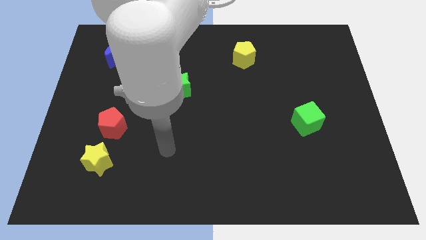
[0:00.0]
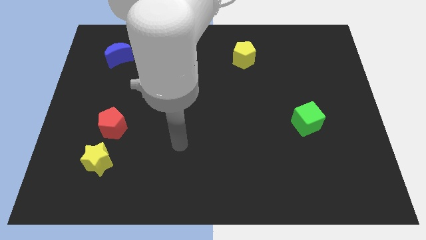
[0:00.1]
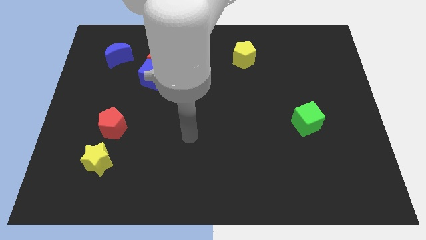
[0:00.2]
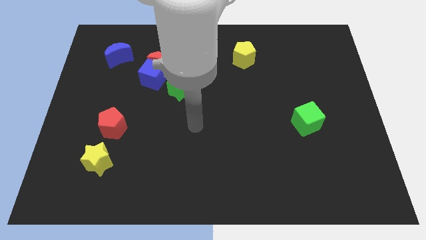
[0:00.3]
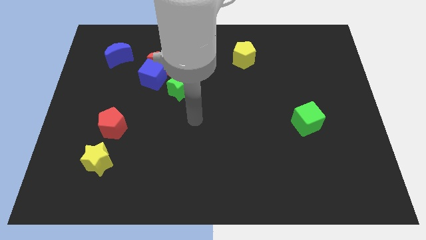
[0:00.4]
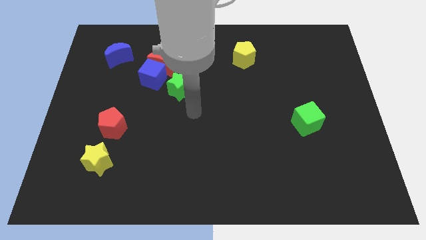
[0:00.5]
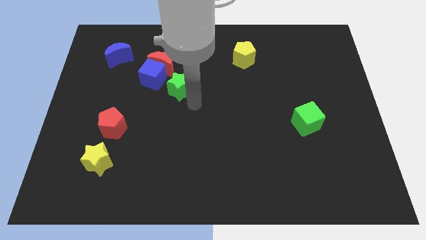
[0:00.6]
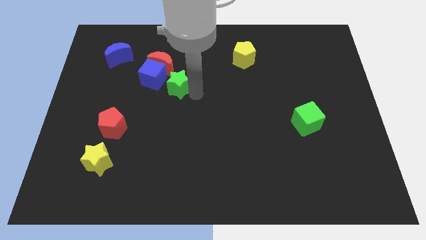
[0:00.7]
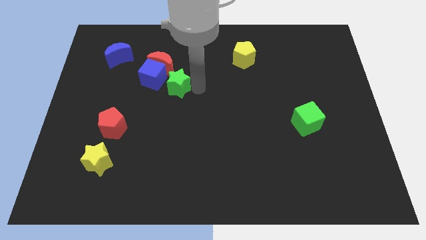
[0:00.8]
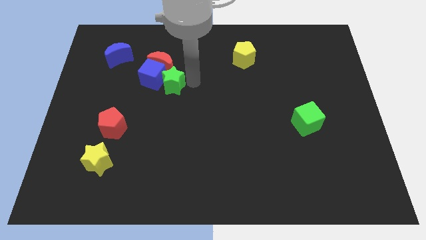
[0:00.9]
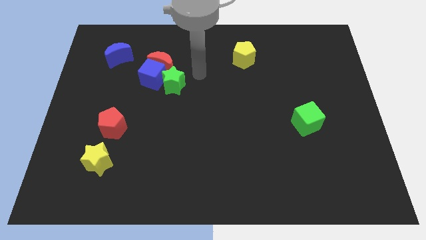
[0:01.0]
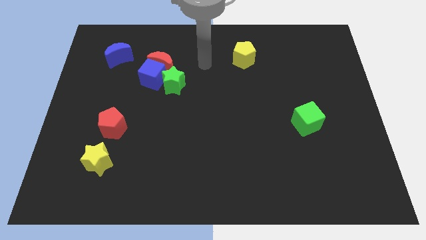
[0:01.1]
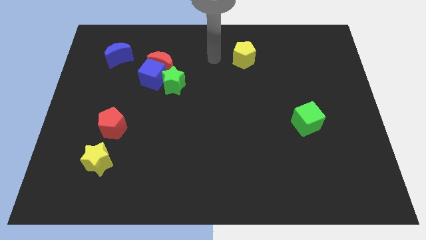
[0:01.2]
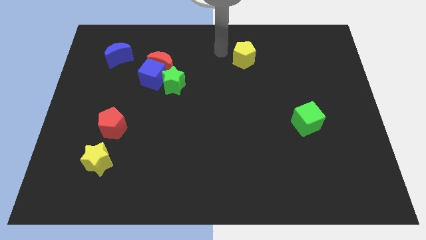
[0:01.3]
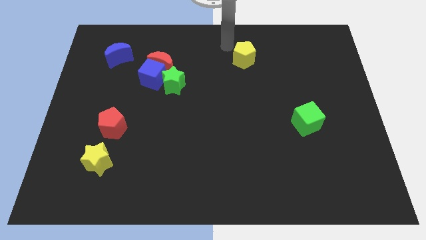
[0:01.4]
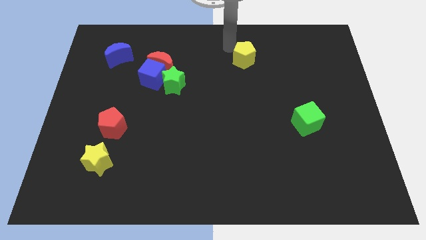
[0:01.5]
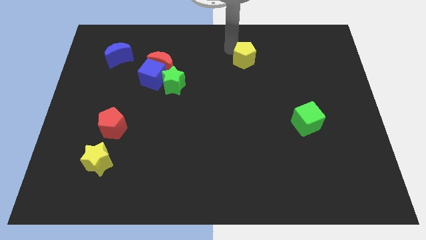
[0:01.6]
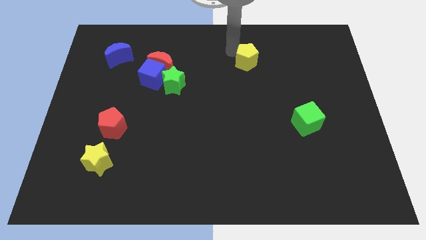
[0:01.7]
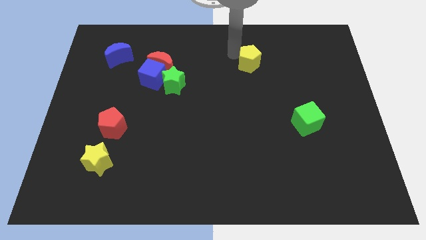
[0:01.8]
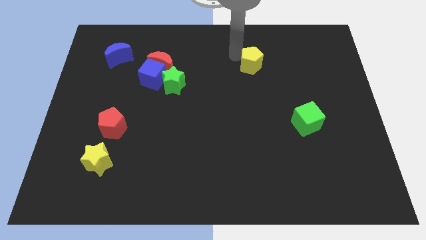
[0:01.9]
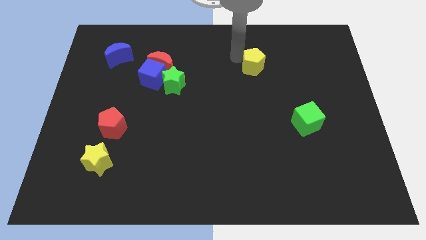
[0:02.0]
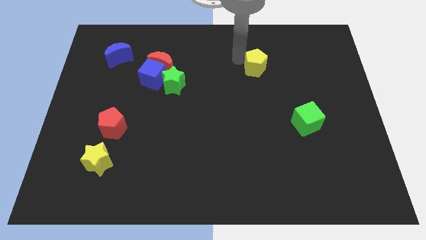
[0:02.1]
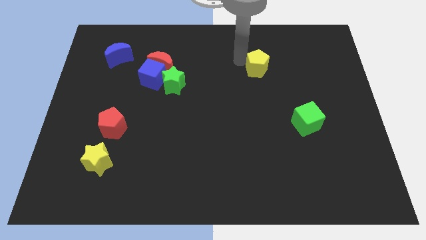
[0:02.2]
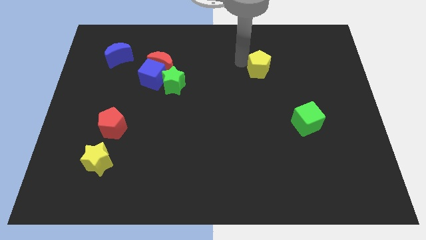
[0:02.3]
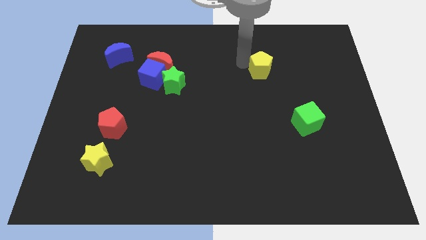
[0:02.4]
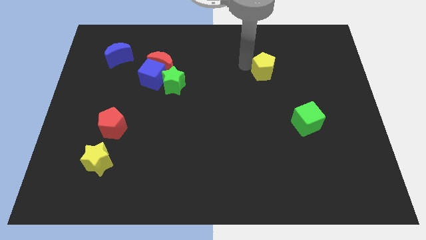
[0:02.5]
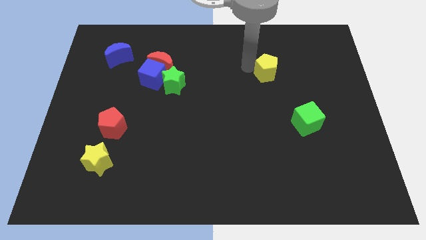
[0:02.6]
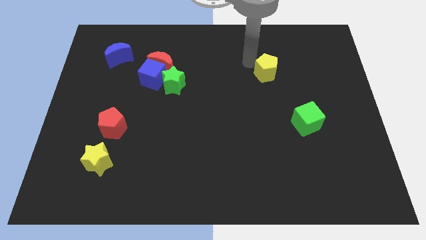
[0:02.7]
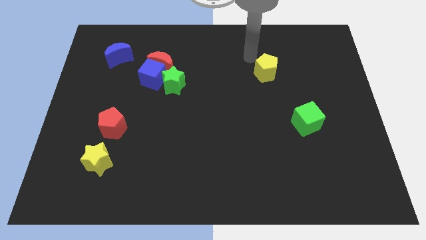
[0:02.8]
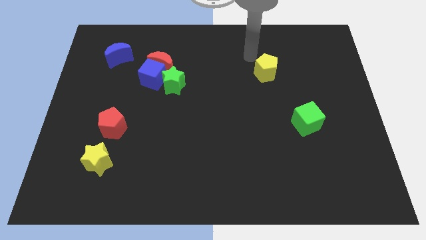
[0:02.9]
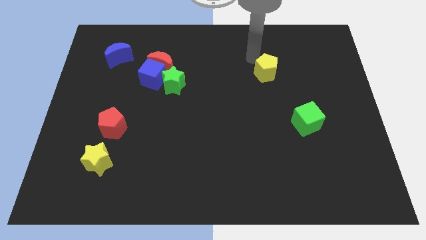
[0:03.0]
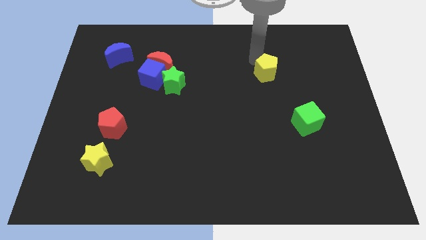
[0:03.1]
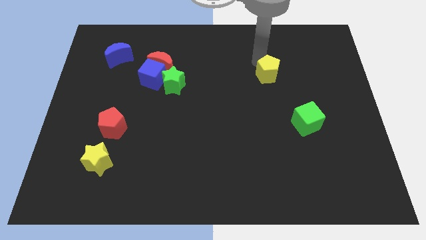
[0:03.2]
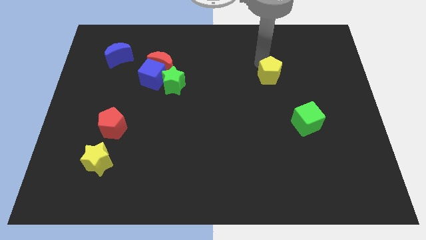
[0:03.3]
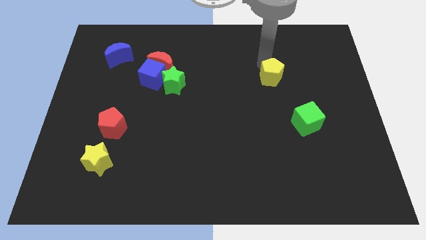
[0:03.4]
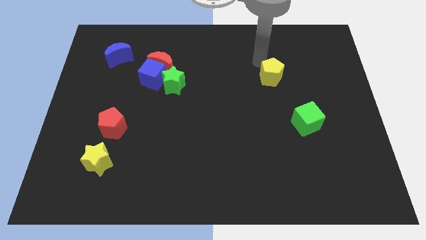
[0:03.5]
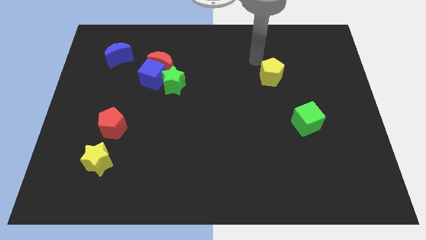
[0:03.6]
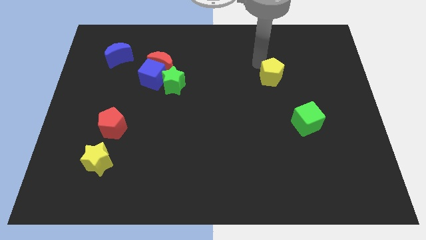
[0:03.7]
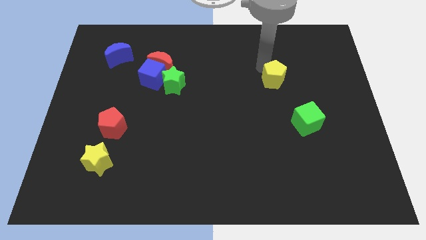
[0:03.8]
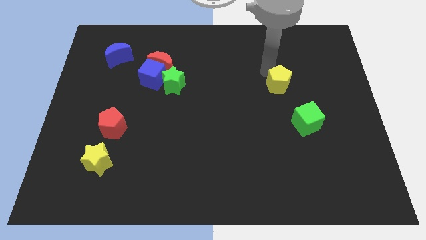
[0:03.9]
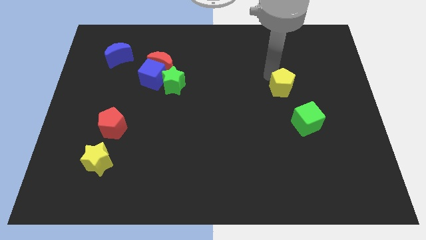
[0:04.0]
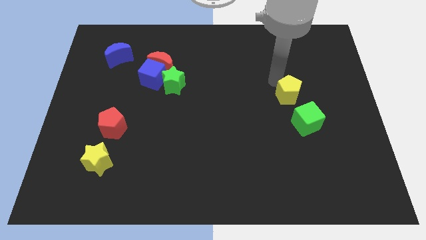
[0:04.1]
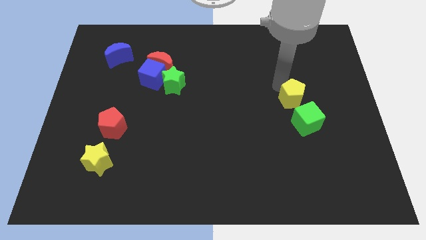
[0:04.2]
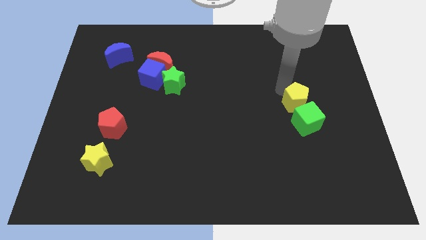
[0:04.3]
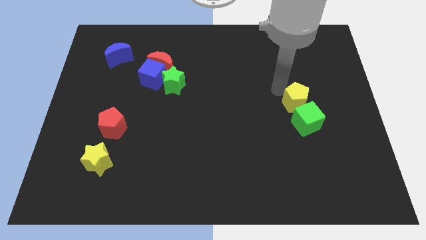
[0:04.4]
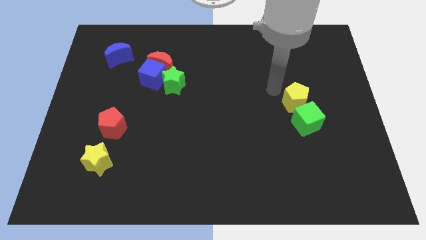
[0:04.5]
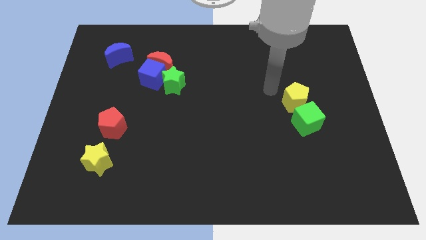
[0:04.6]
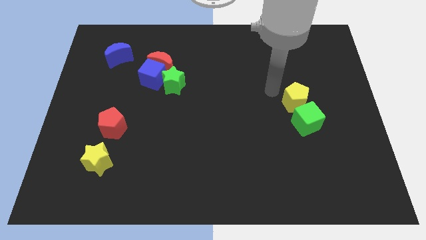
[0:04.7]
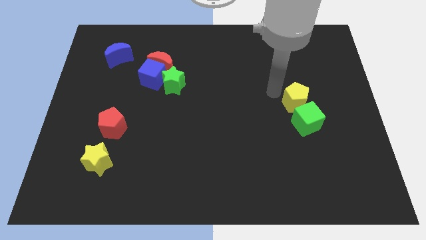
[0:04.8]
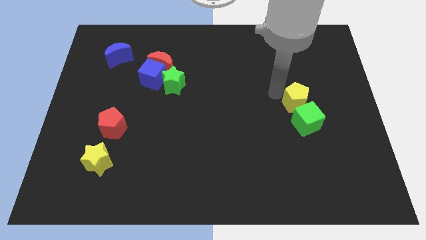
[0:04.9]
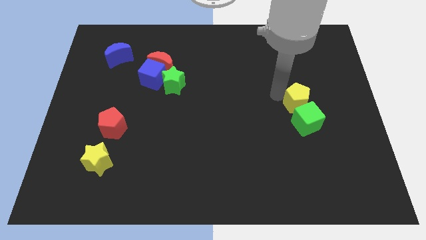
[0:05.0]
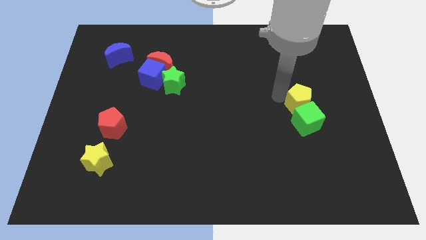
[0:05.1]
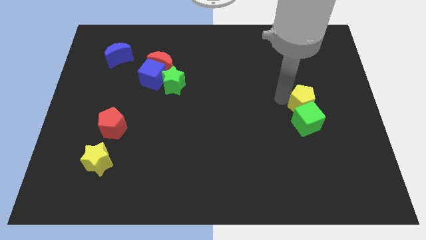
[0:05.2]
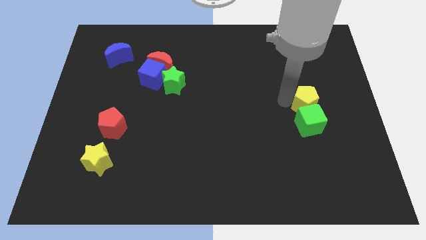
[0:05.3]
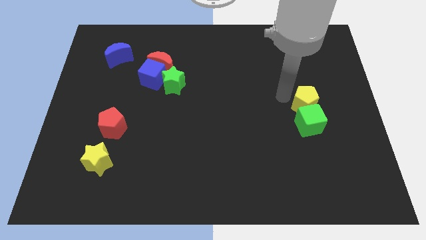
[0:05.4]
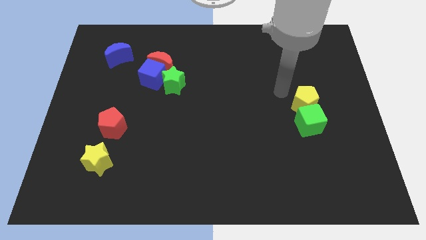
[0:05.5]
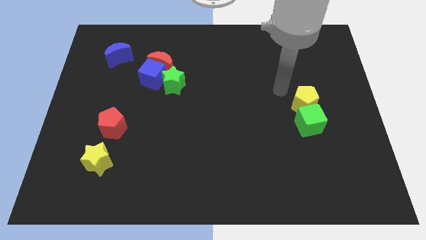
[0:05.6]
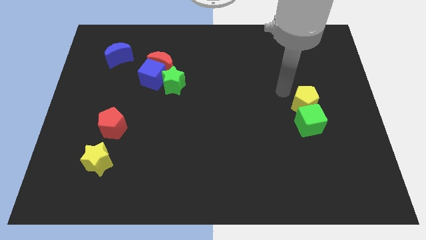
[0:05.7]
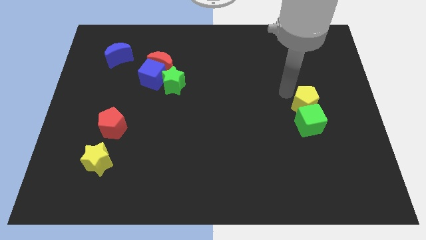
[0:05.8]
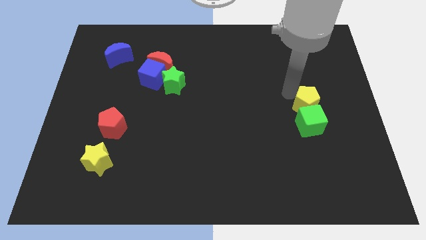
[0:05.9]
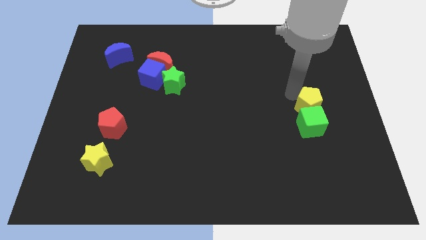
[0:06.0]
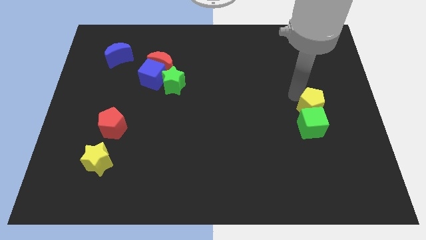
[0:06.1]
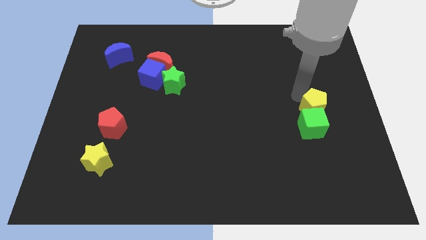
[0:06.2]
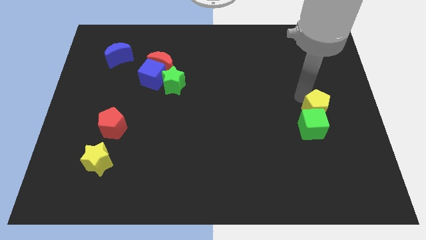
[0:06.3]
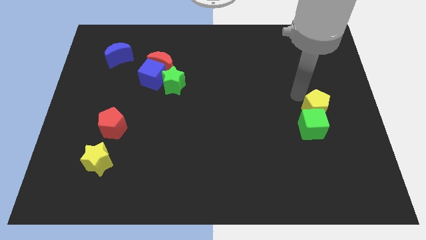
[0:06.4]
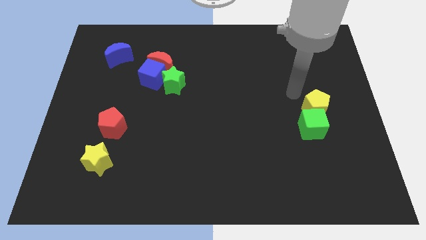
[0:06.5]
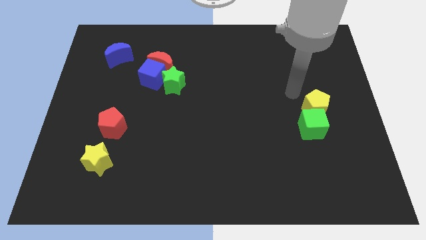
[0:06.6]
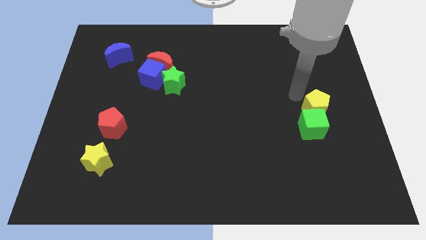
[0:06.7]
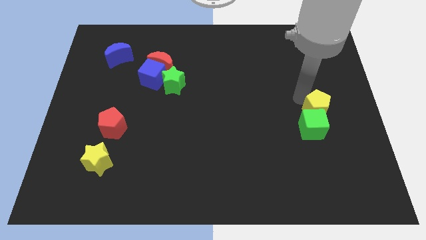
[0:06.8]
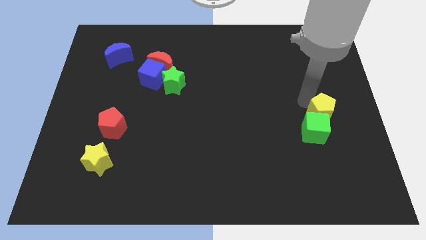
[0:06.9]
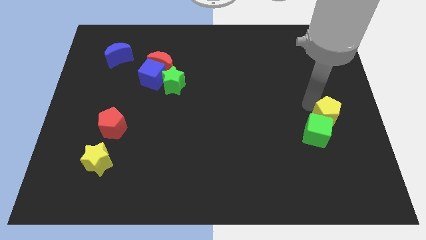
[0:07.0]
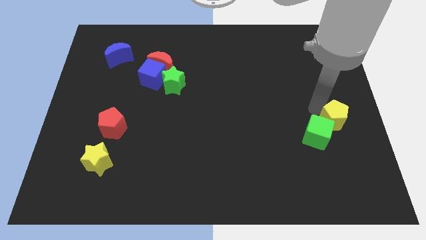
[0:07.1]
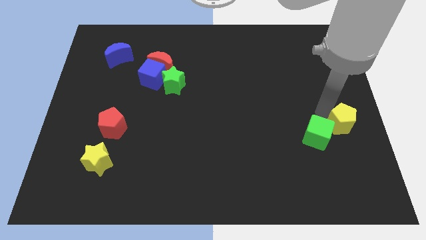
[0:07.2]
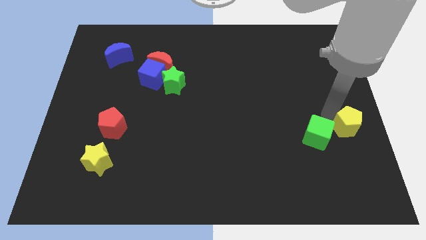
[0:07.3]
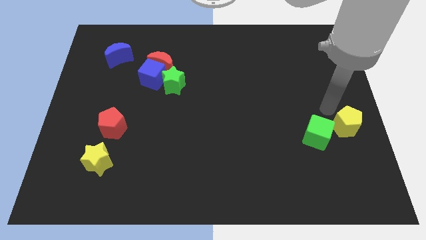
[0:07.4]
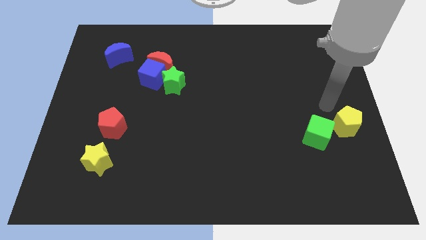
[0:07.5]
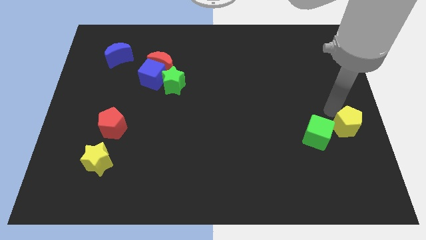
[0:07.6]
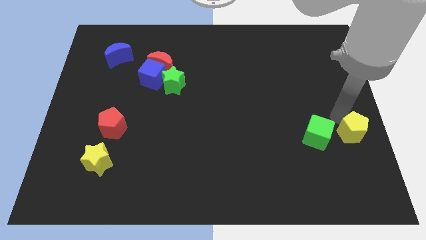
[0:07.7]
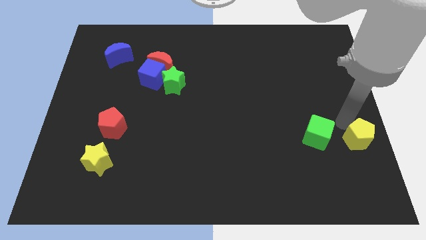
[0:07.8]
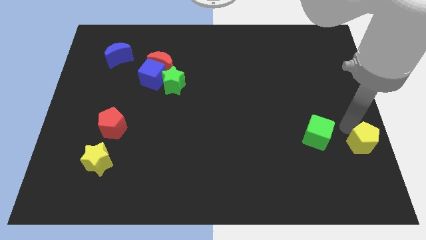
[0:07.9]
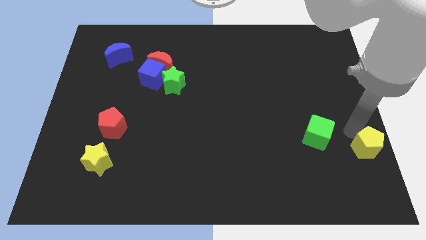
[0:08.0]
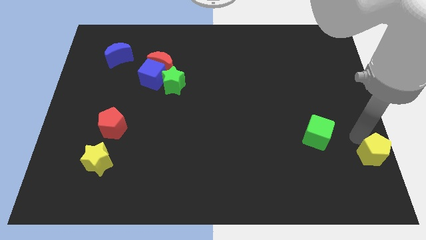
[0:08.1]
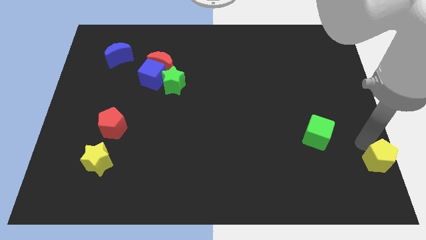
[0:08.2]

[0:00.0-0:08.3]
slide the yellow pentagon to the lower right corner
